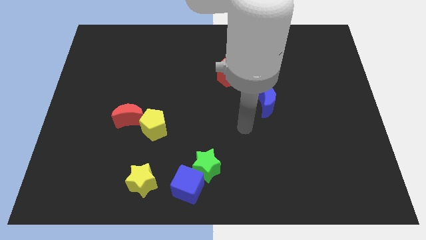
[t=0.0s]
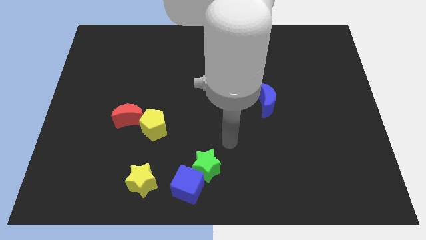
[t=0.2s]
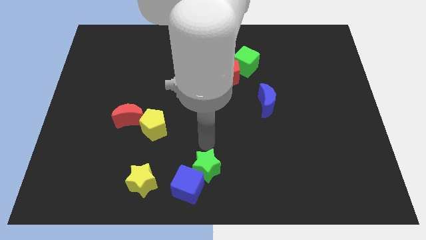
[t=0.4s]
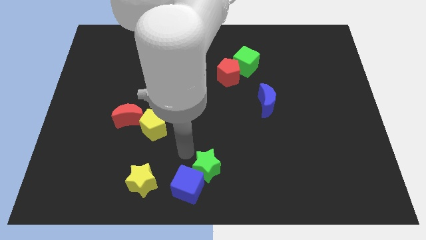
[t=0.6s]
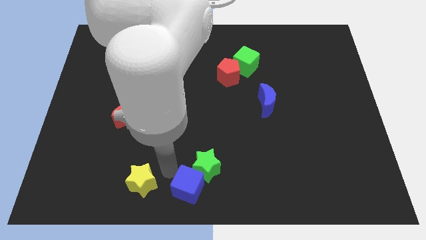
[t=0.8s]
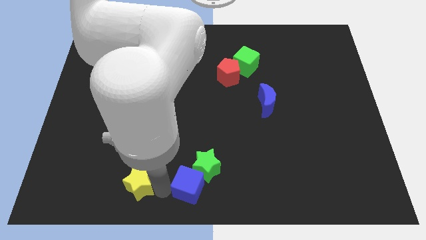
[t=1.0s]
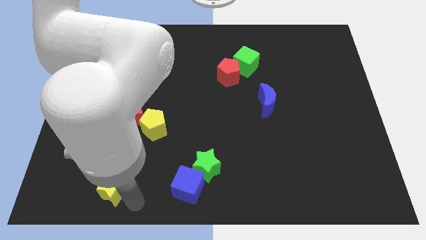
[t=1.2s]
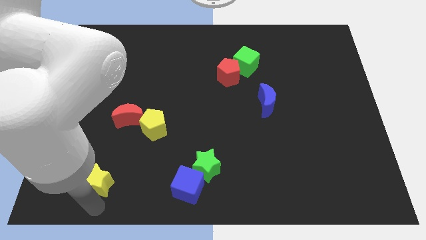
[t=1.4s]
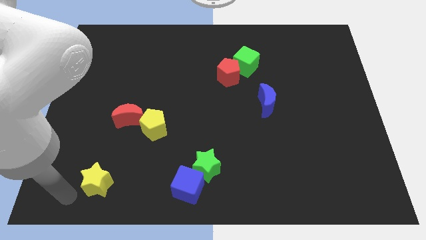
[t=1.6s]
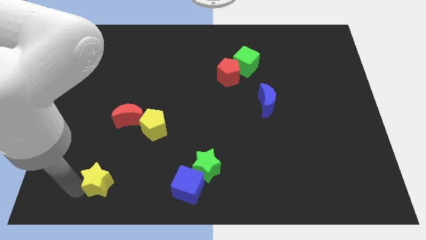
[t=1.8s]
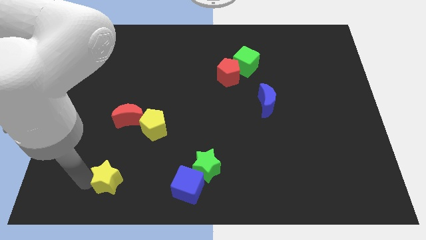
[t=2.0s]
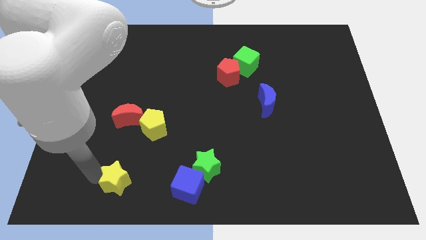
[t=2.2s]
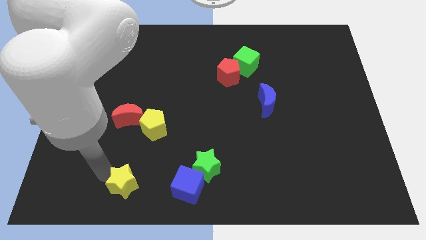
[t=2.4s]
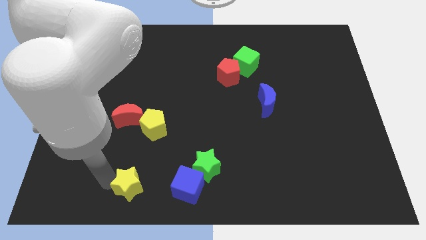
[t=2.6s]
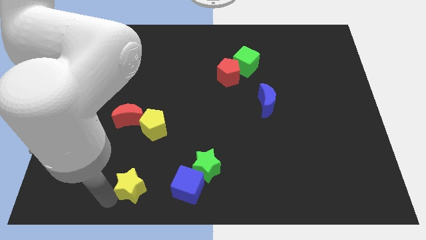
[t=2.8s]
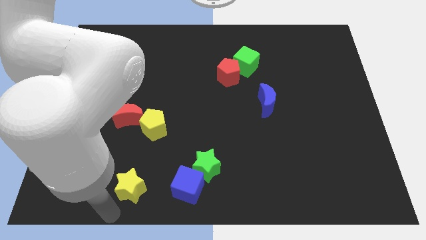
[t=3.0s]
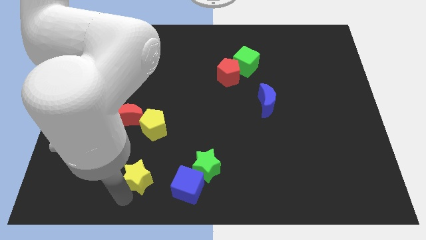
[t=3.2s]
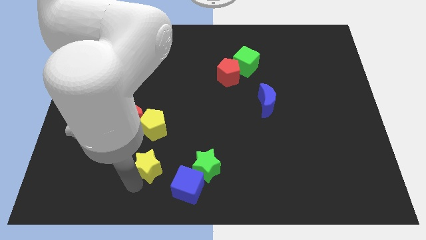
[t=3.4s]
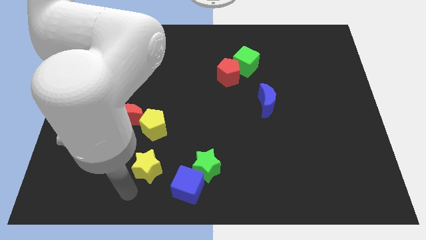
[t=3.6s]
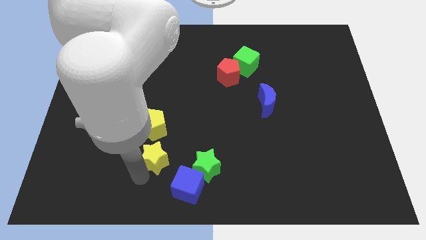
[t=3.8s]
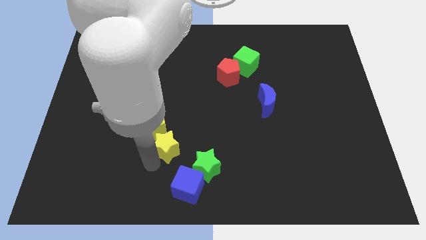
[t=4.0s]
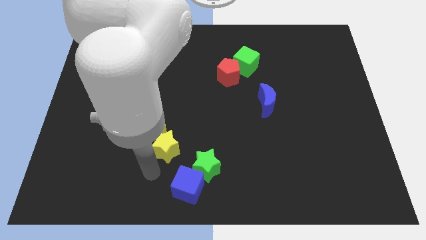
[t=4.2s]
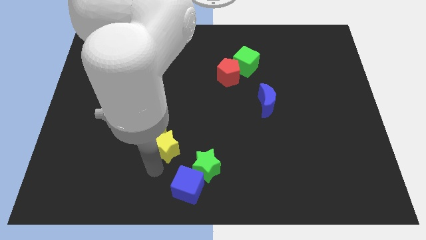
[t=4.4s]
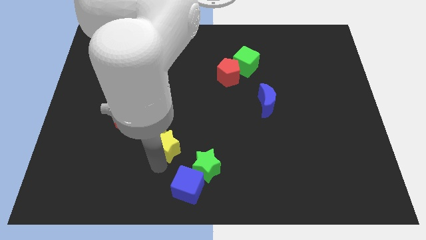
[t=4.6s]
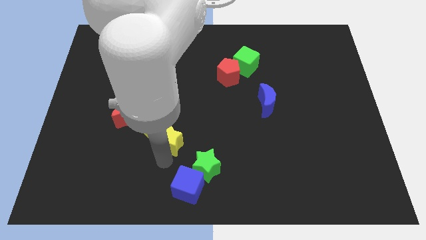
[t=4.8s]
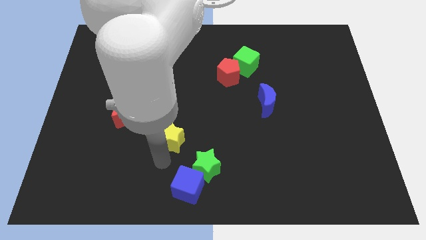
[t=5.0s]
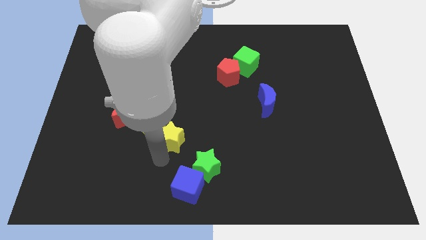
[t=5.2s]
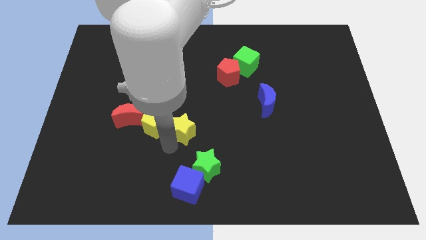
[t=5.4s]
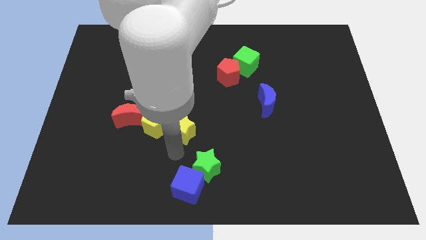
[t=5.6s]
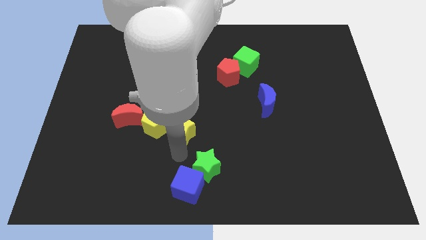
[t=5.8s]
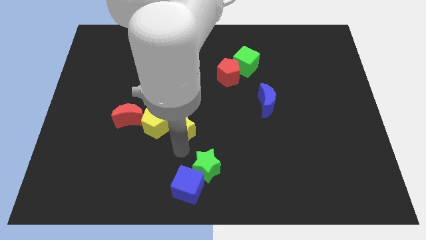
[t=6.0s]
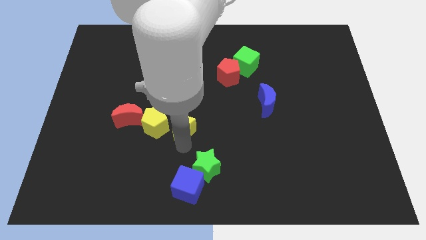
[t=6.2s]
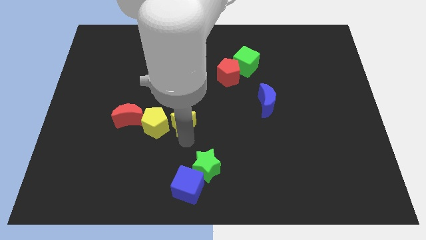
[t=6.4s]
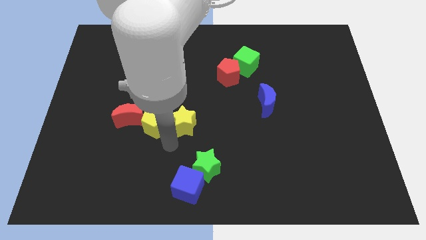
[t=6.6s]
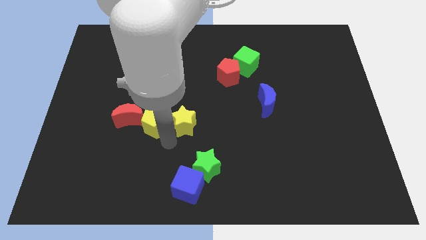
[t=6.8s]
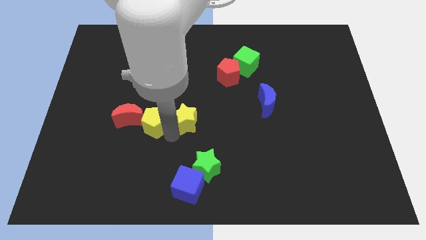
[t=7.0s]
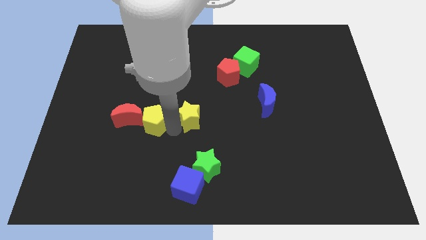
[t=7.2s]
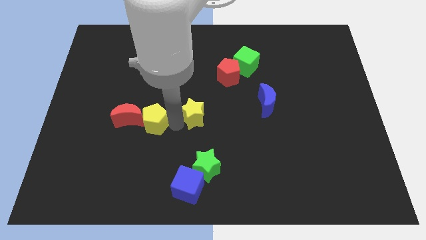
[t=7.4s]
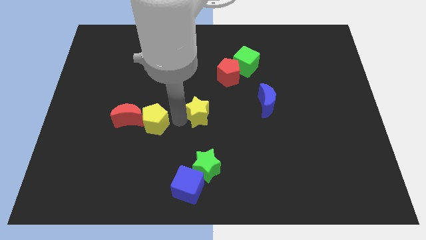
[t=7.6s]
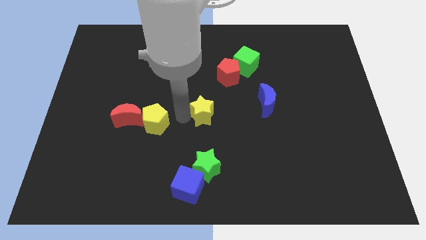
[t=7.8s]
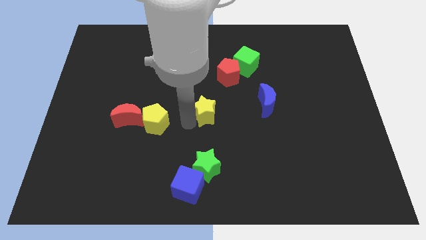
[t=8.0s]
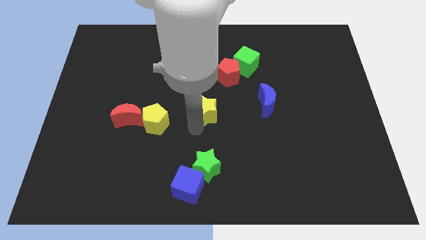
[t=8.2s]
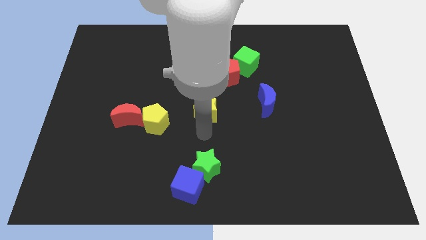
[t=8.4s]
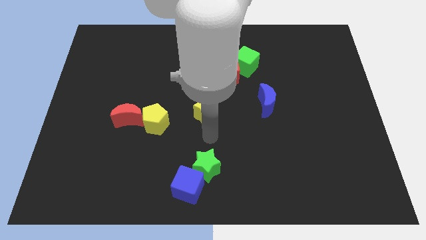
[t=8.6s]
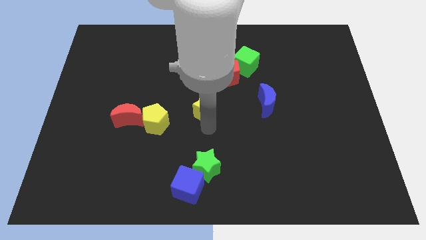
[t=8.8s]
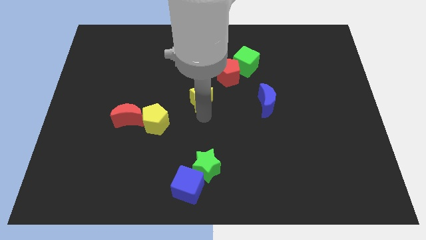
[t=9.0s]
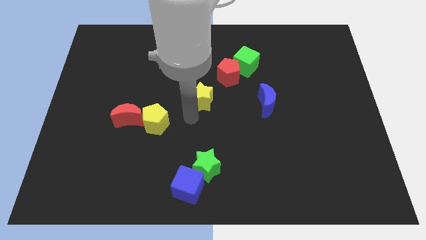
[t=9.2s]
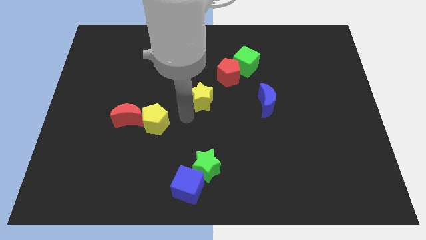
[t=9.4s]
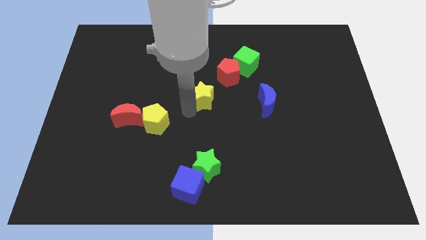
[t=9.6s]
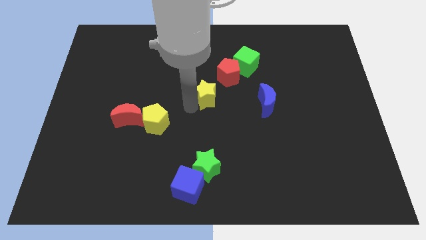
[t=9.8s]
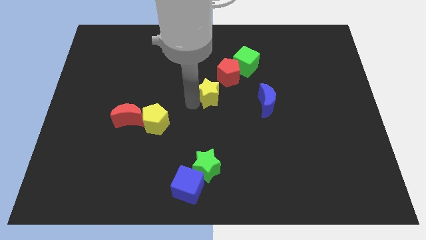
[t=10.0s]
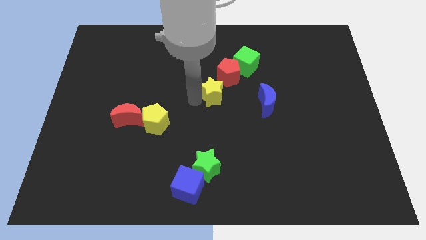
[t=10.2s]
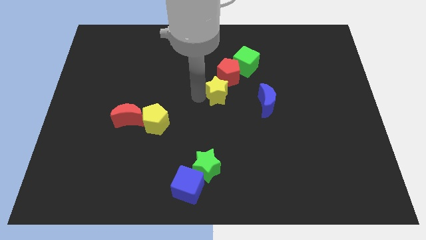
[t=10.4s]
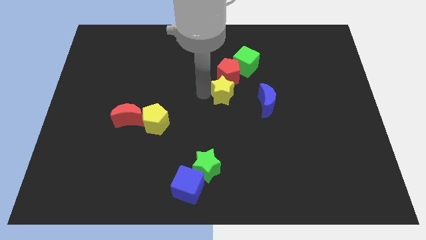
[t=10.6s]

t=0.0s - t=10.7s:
move the yellow star next to the red pentagon

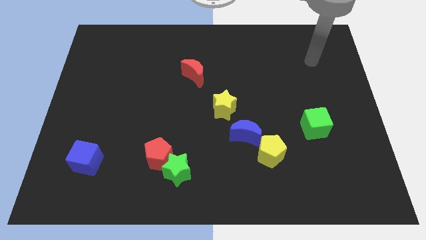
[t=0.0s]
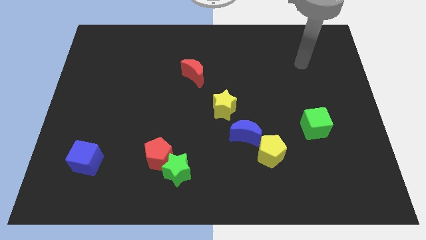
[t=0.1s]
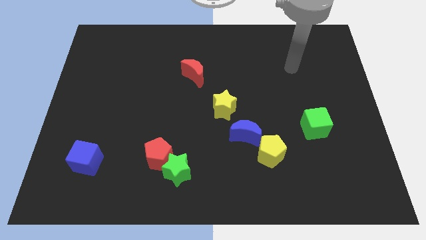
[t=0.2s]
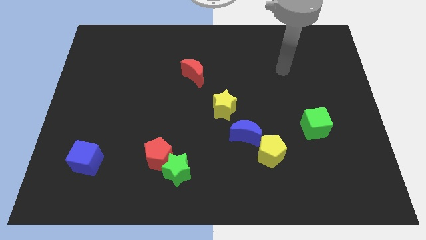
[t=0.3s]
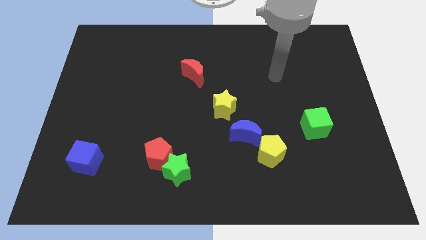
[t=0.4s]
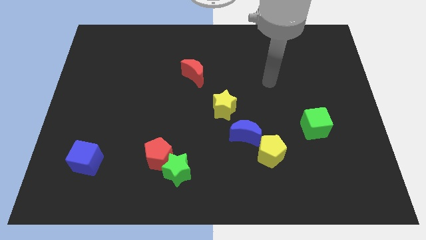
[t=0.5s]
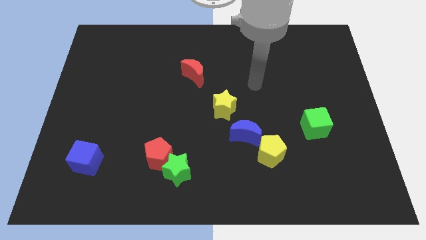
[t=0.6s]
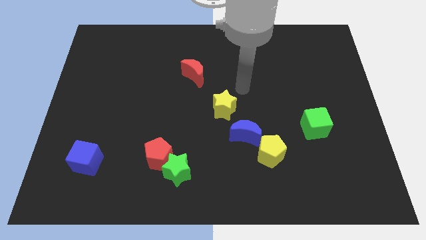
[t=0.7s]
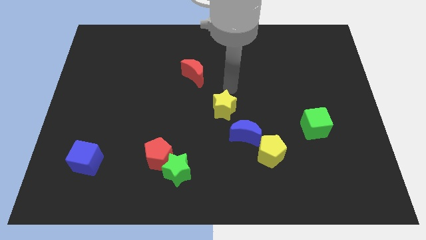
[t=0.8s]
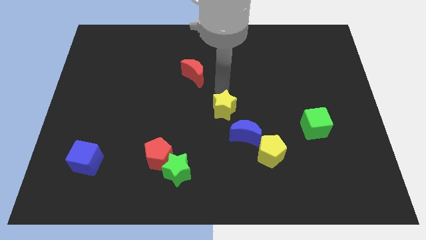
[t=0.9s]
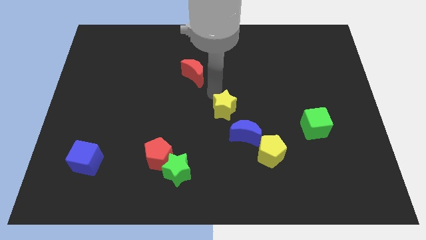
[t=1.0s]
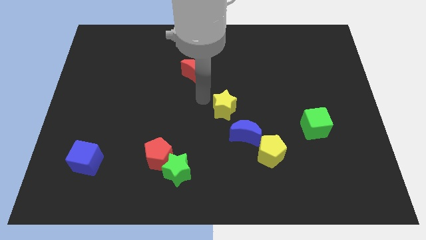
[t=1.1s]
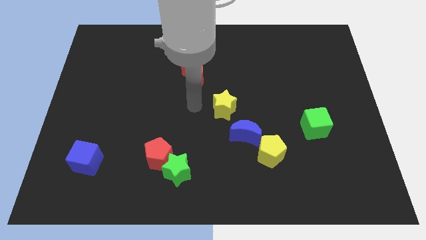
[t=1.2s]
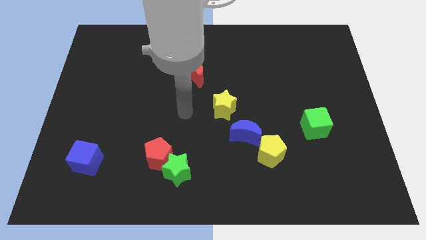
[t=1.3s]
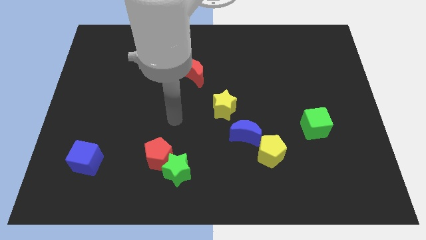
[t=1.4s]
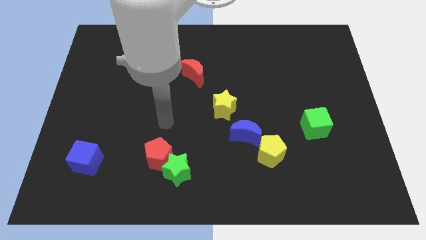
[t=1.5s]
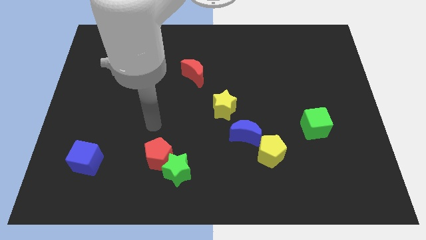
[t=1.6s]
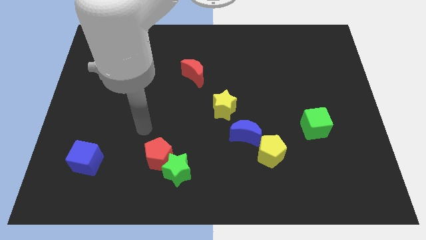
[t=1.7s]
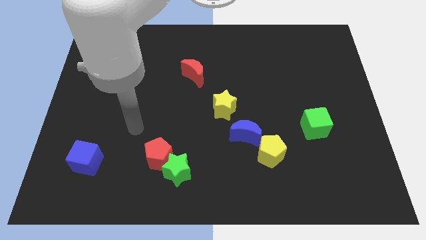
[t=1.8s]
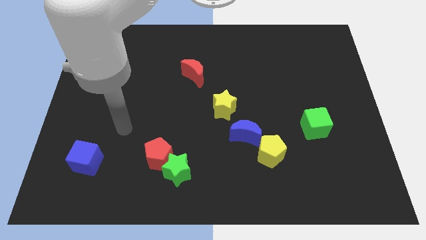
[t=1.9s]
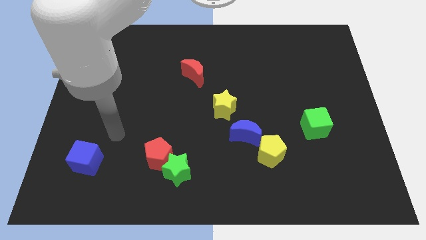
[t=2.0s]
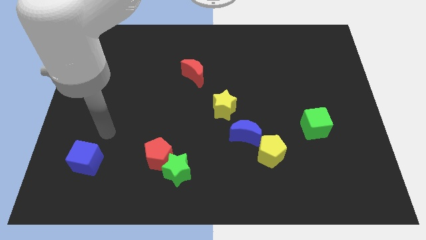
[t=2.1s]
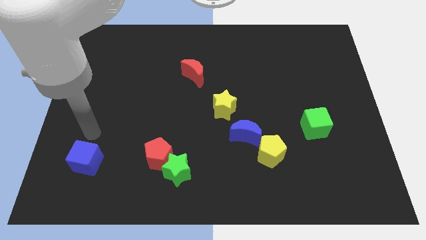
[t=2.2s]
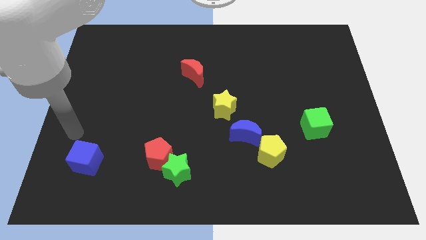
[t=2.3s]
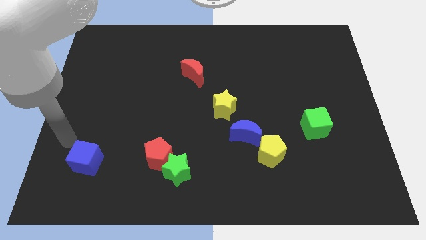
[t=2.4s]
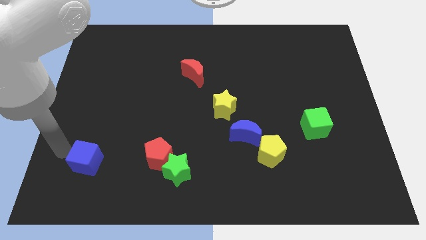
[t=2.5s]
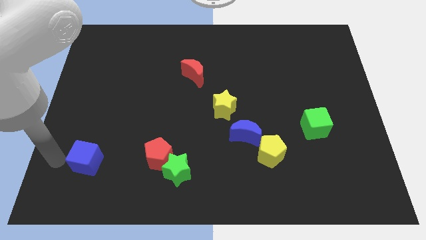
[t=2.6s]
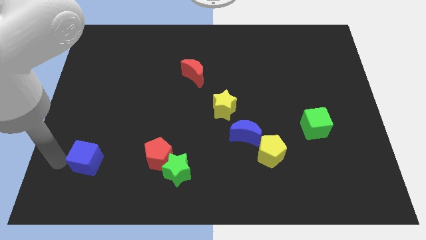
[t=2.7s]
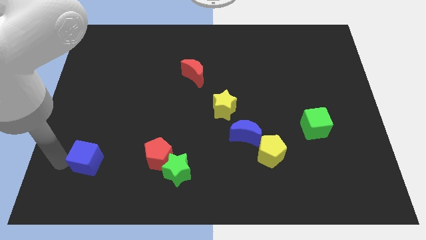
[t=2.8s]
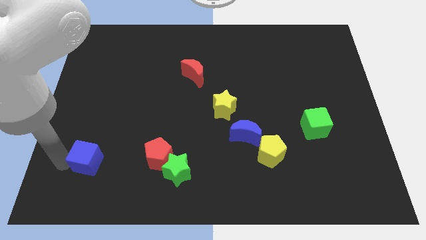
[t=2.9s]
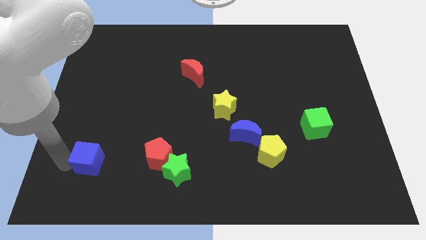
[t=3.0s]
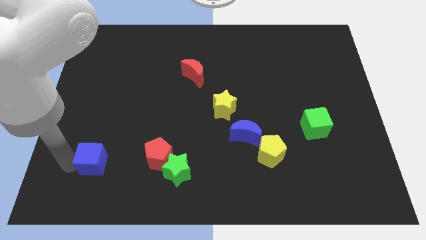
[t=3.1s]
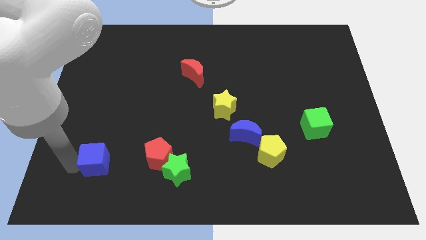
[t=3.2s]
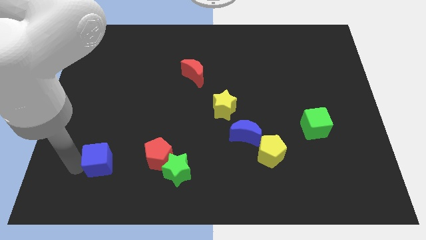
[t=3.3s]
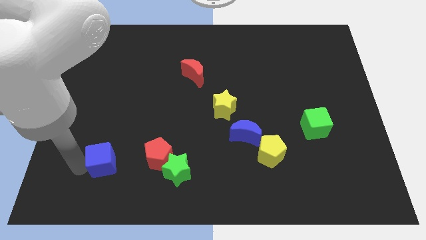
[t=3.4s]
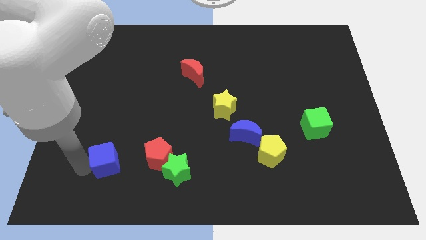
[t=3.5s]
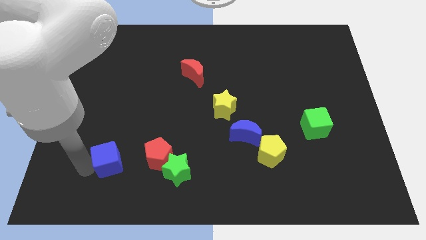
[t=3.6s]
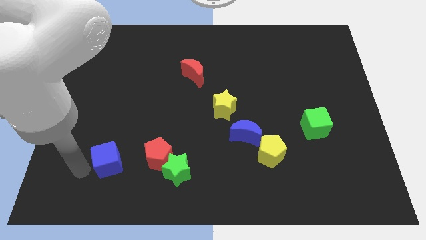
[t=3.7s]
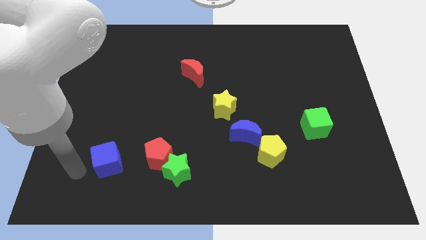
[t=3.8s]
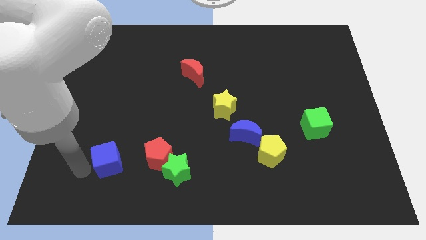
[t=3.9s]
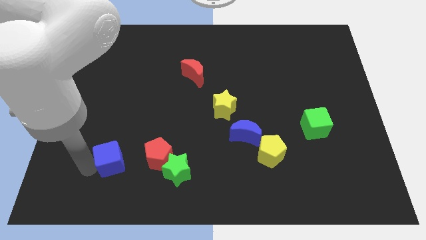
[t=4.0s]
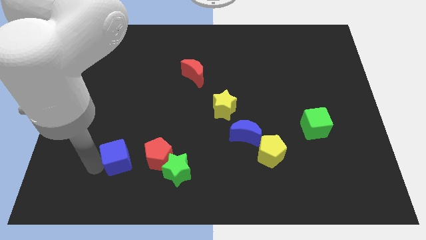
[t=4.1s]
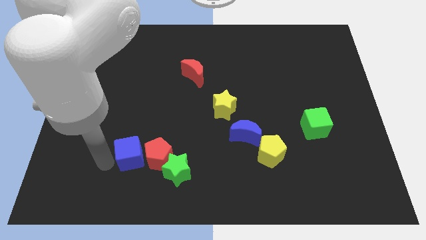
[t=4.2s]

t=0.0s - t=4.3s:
put the blue cube close to the red pentagon
